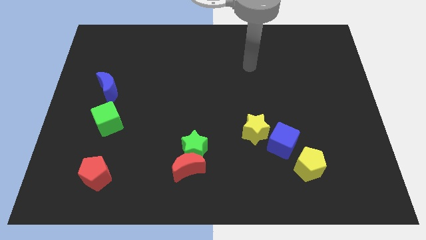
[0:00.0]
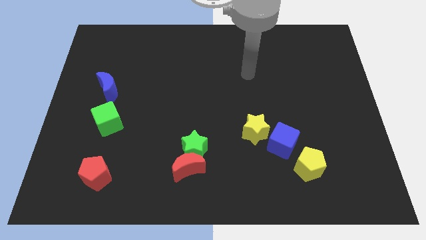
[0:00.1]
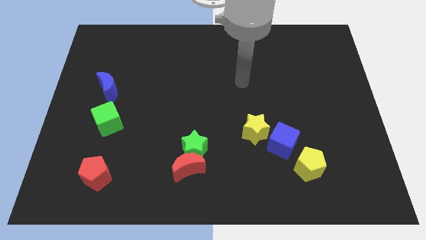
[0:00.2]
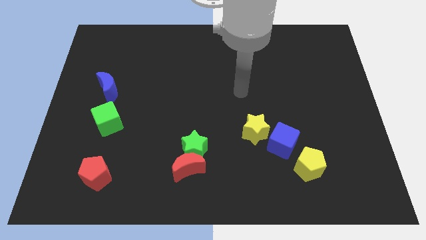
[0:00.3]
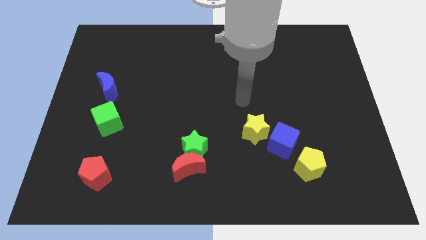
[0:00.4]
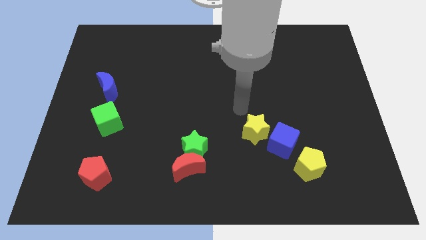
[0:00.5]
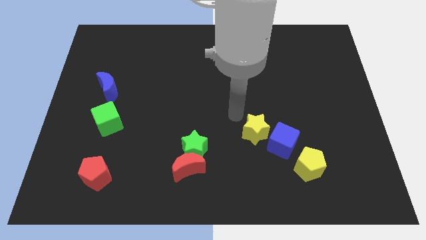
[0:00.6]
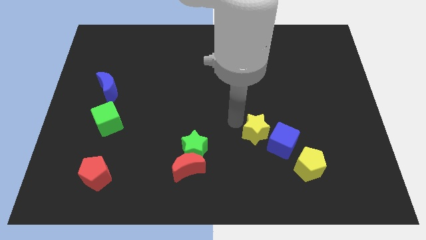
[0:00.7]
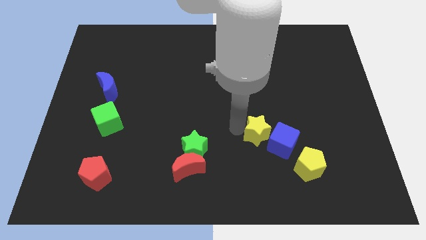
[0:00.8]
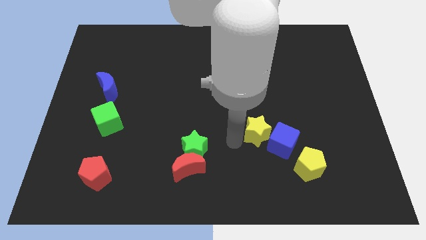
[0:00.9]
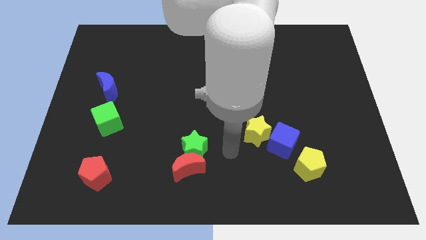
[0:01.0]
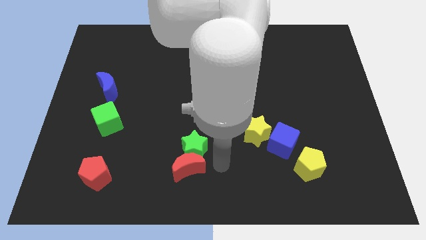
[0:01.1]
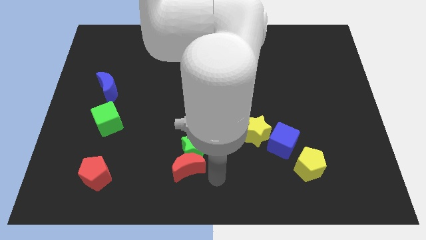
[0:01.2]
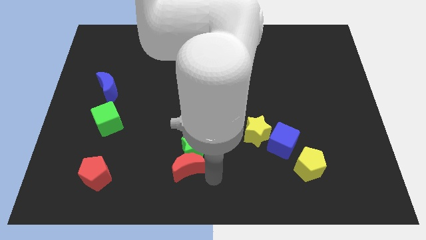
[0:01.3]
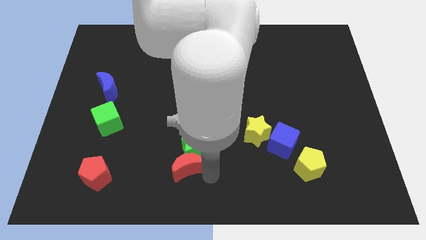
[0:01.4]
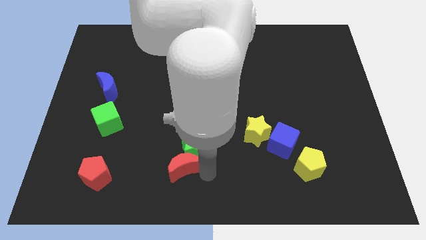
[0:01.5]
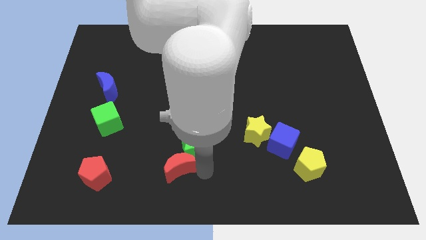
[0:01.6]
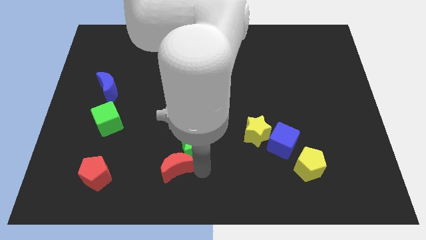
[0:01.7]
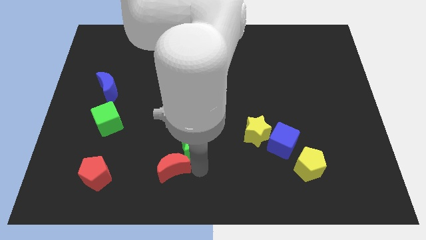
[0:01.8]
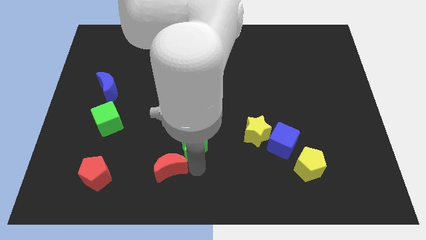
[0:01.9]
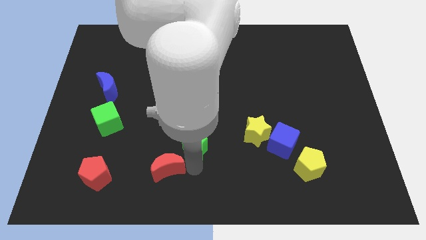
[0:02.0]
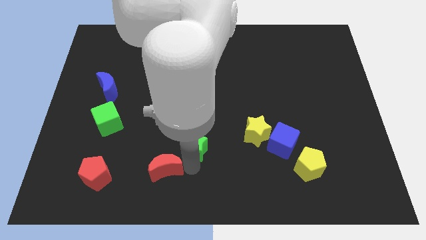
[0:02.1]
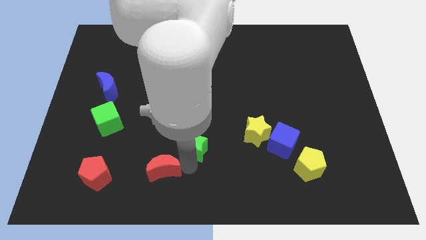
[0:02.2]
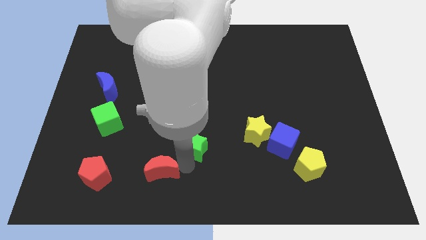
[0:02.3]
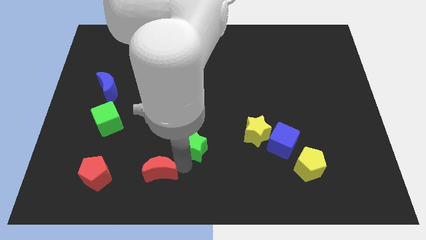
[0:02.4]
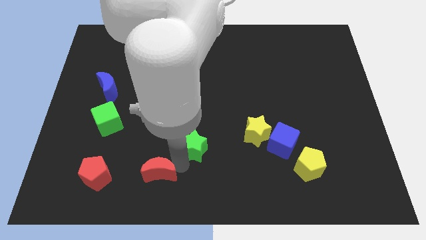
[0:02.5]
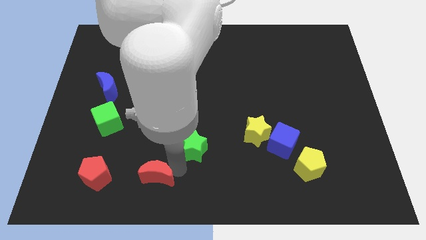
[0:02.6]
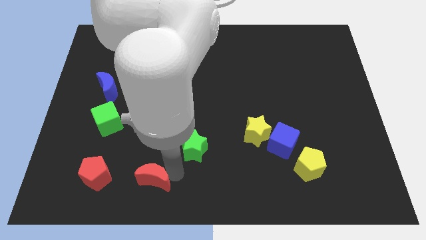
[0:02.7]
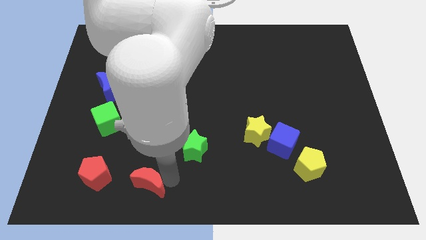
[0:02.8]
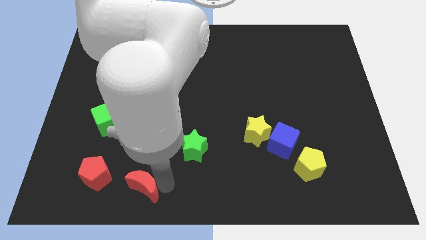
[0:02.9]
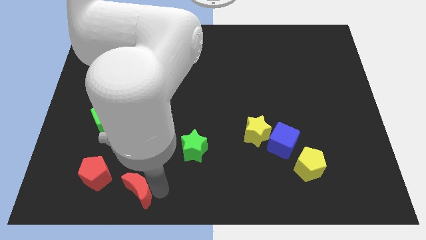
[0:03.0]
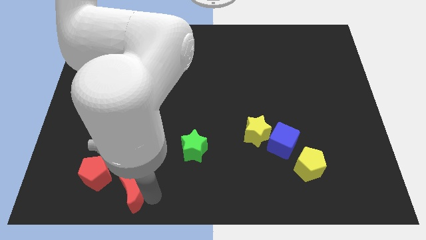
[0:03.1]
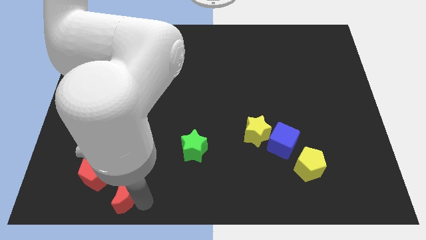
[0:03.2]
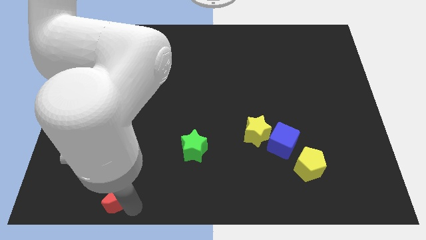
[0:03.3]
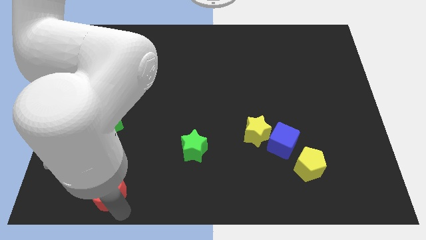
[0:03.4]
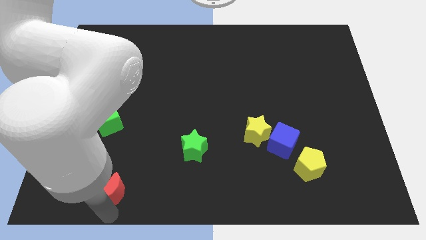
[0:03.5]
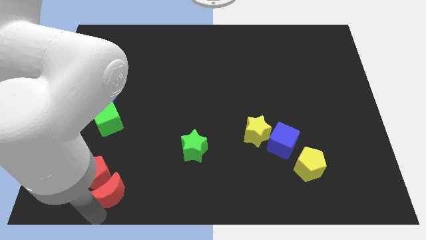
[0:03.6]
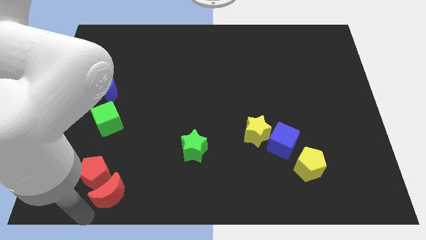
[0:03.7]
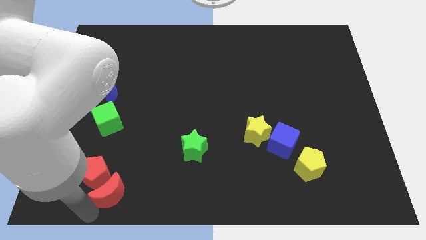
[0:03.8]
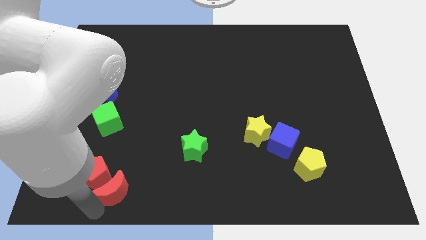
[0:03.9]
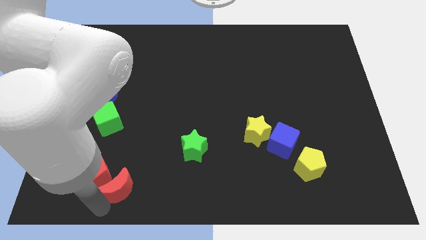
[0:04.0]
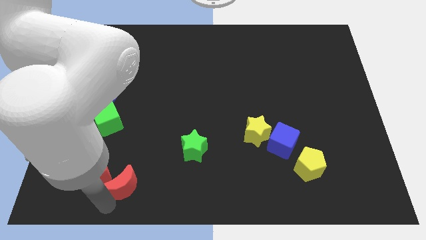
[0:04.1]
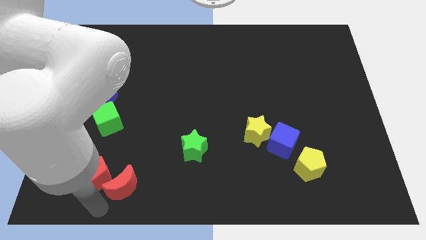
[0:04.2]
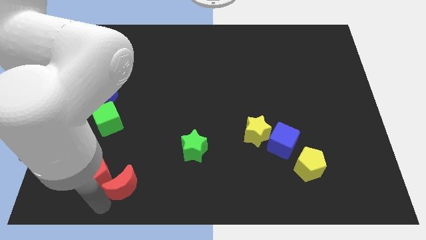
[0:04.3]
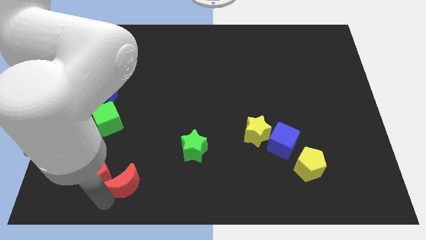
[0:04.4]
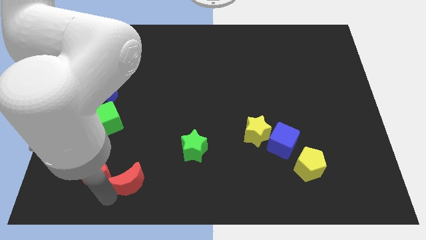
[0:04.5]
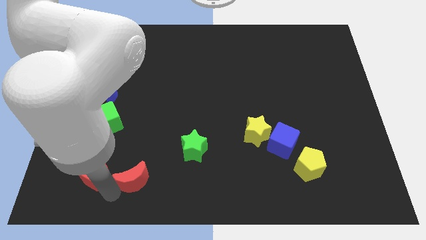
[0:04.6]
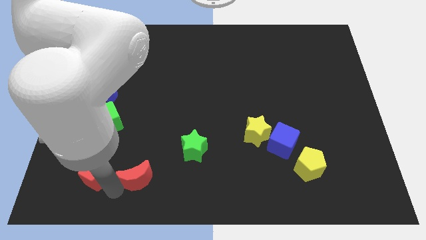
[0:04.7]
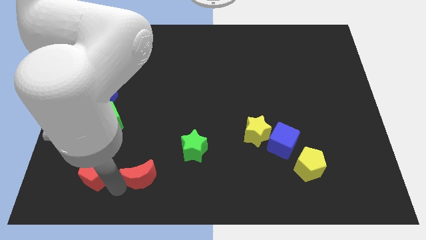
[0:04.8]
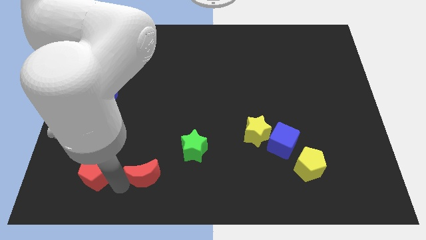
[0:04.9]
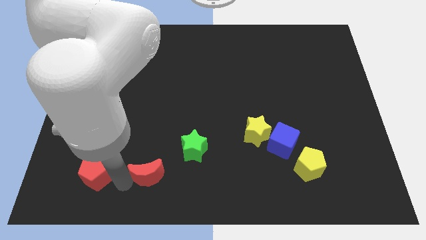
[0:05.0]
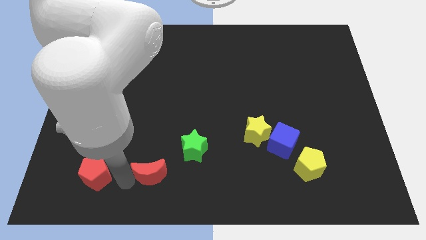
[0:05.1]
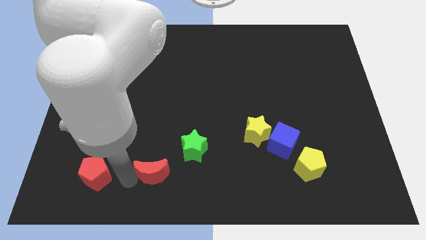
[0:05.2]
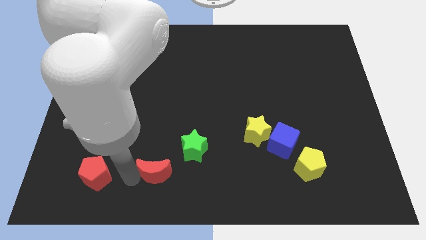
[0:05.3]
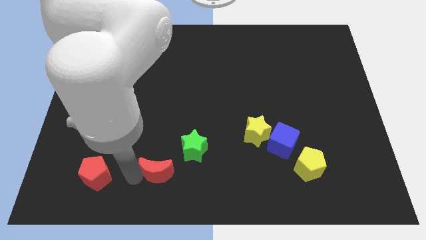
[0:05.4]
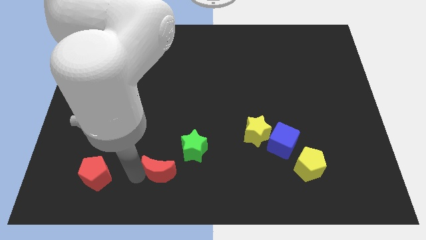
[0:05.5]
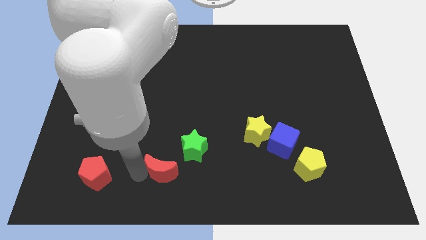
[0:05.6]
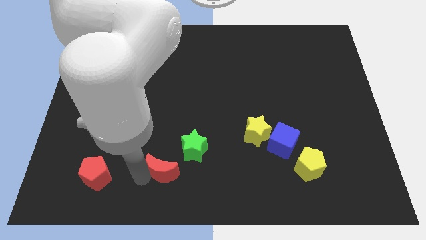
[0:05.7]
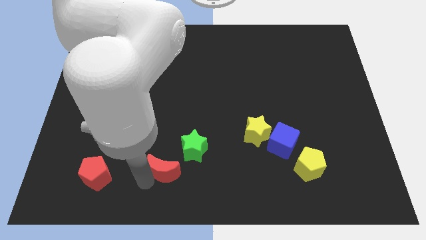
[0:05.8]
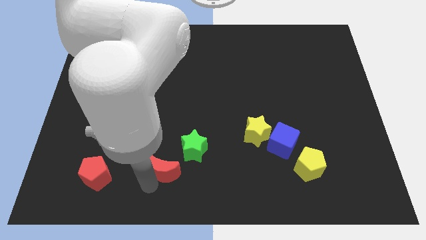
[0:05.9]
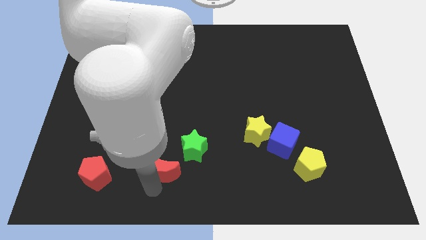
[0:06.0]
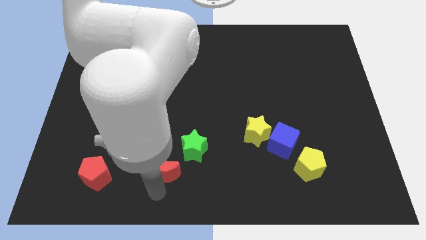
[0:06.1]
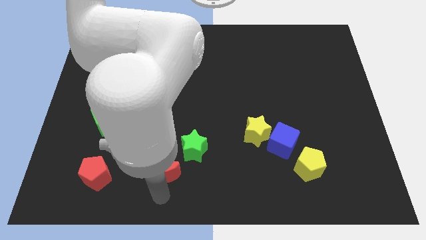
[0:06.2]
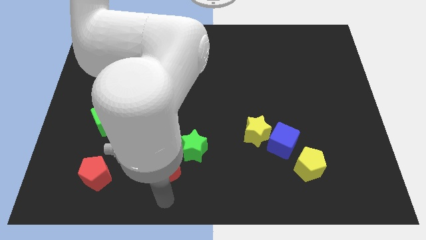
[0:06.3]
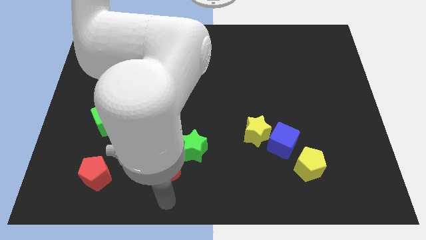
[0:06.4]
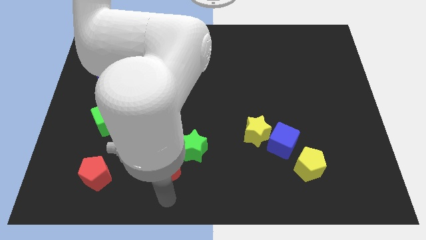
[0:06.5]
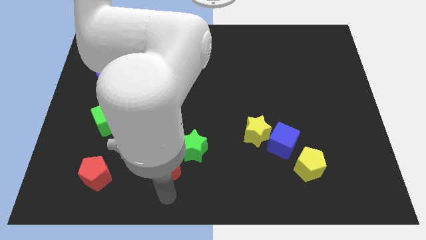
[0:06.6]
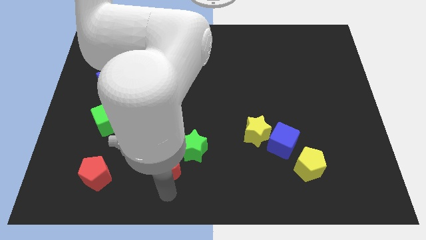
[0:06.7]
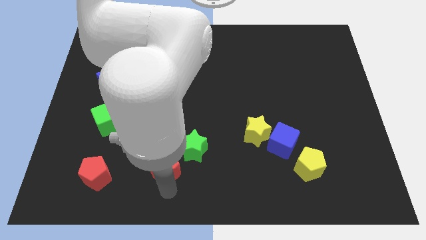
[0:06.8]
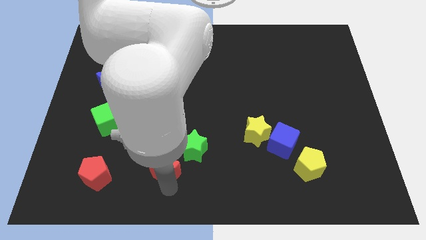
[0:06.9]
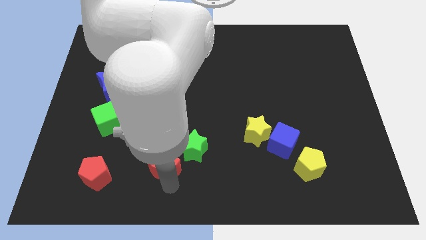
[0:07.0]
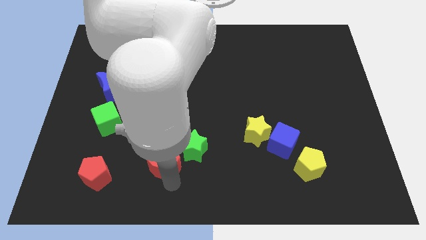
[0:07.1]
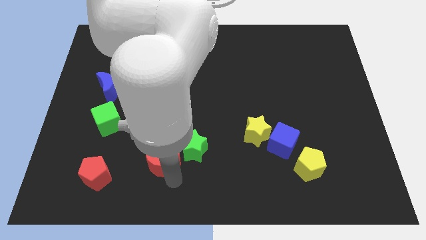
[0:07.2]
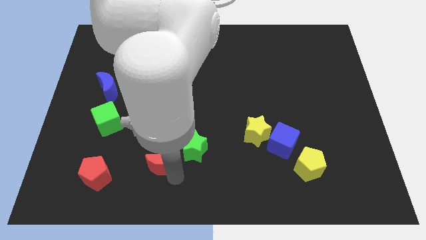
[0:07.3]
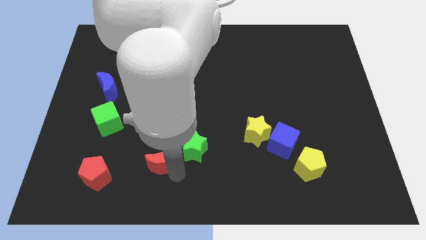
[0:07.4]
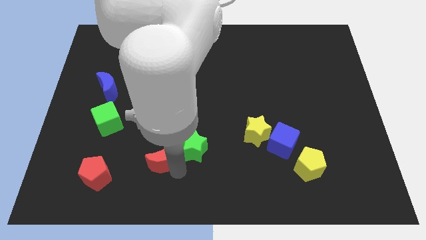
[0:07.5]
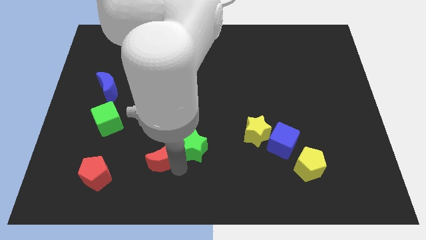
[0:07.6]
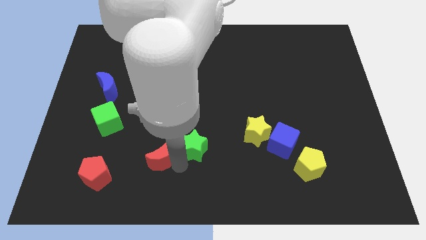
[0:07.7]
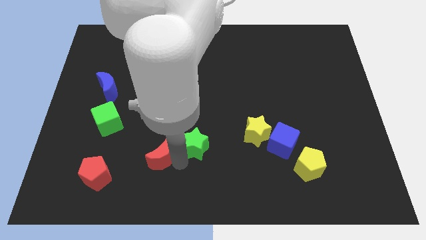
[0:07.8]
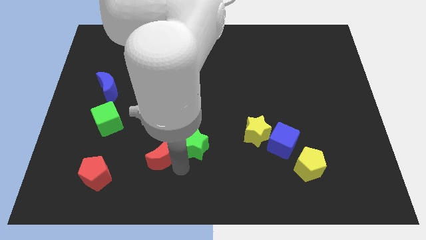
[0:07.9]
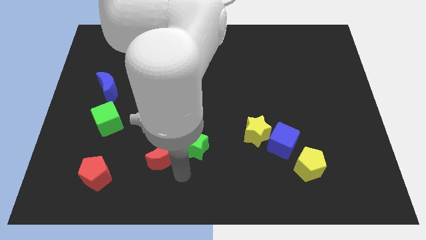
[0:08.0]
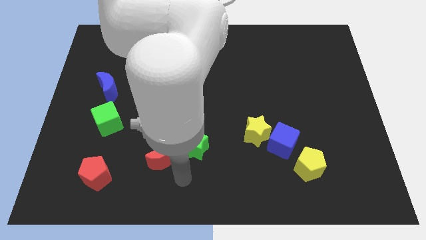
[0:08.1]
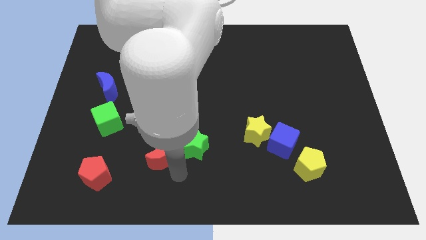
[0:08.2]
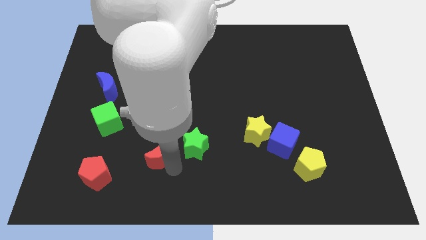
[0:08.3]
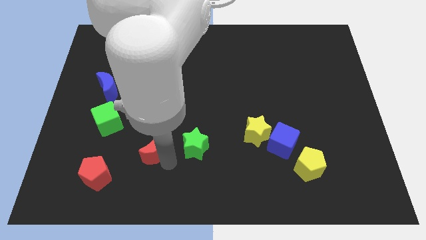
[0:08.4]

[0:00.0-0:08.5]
slide the red moon upwards and to the left diagonally a little bit
